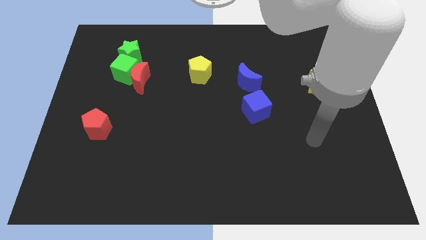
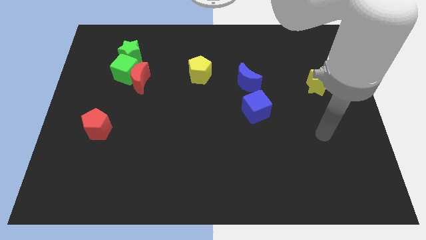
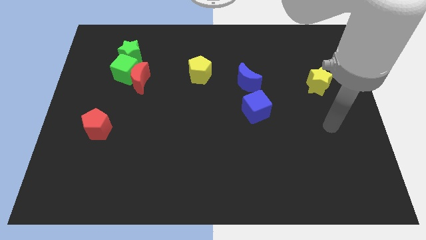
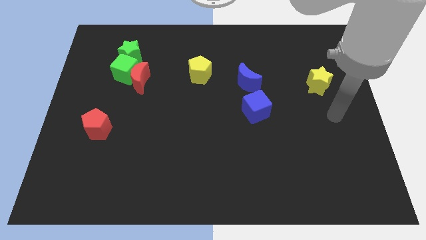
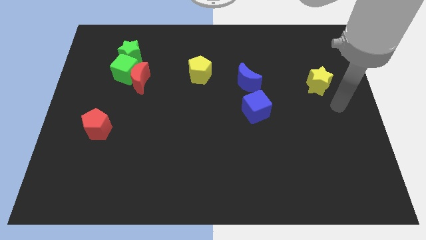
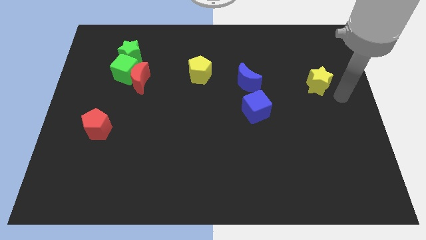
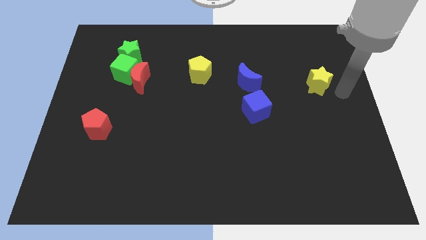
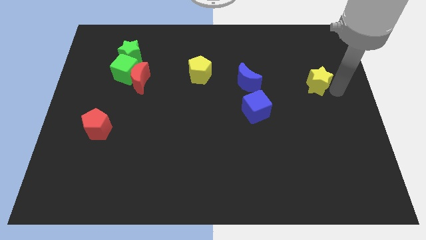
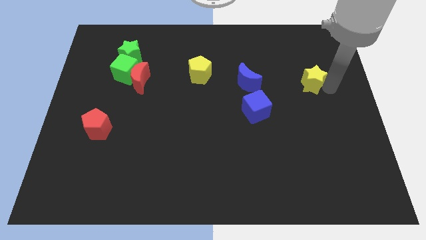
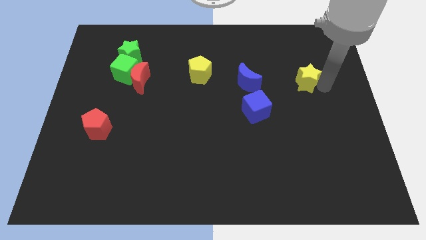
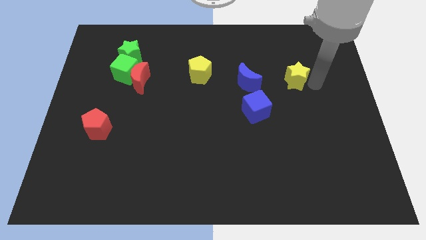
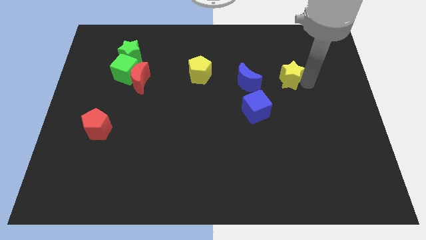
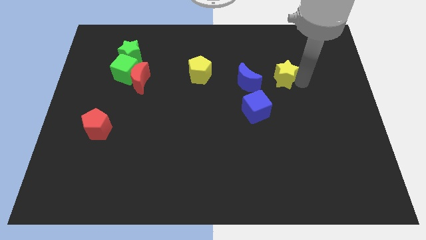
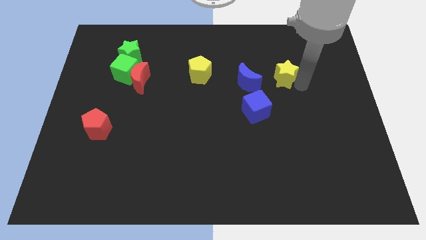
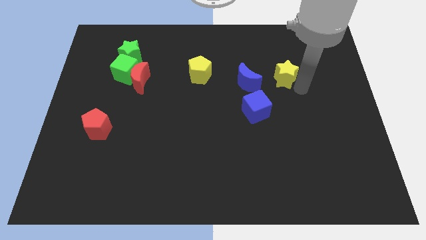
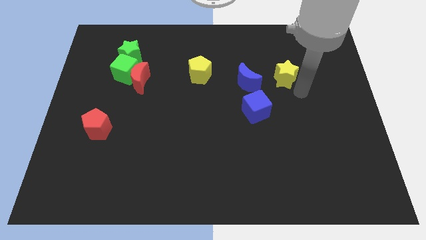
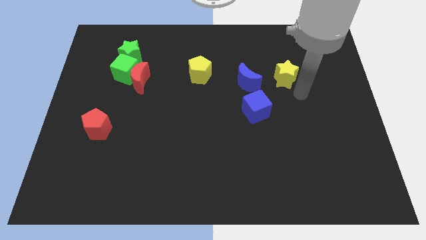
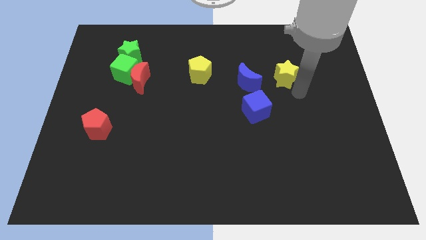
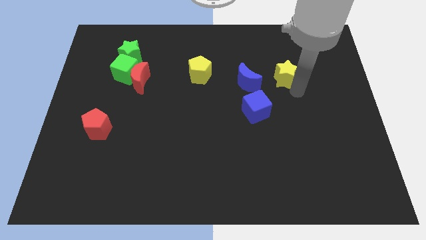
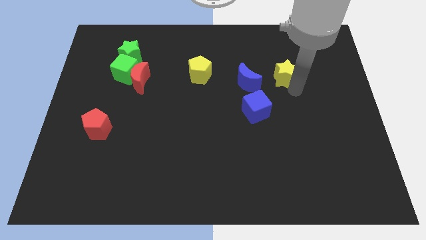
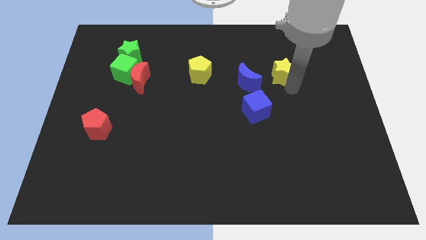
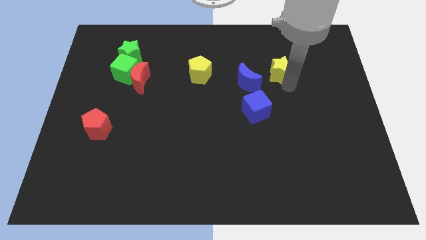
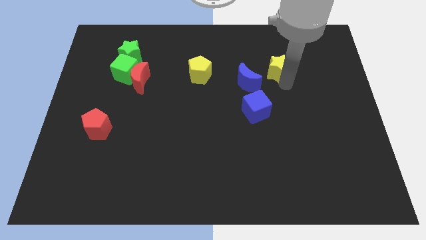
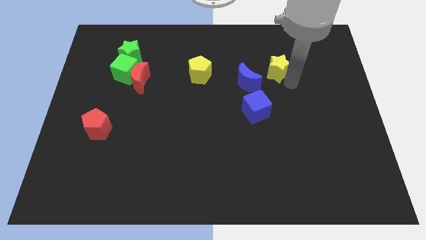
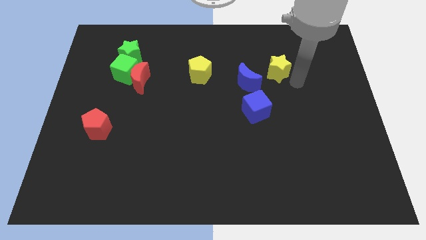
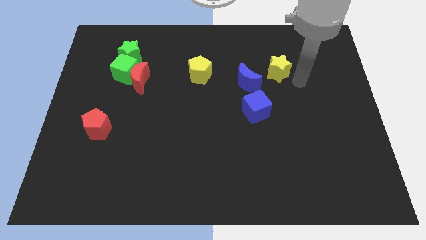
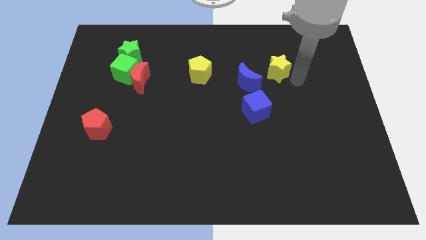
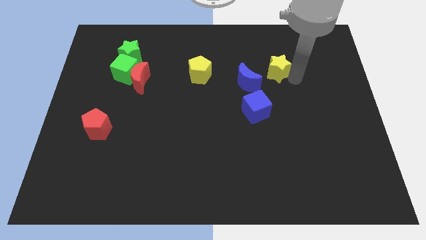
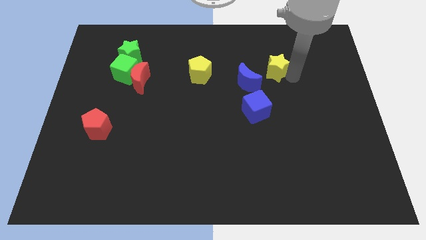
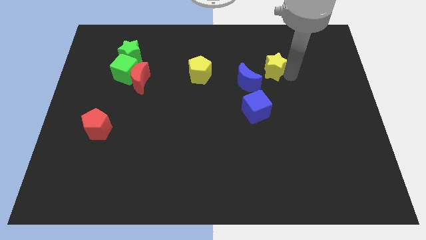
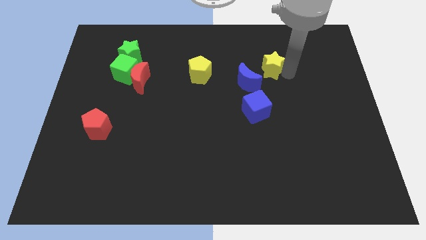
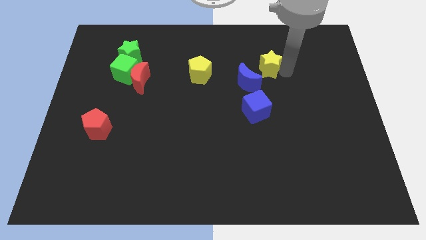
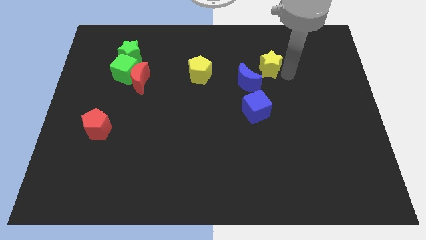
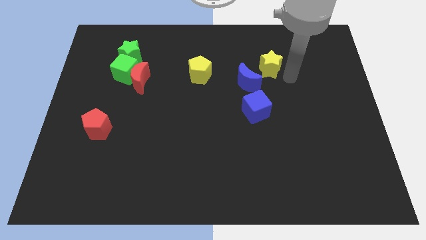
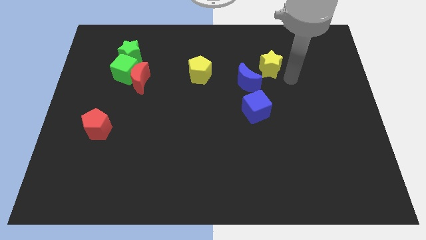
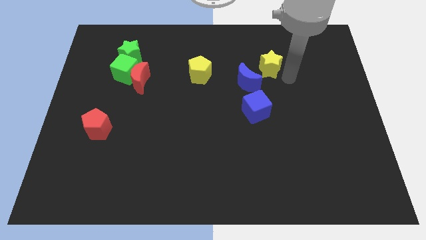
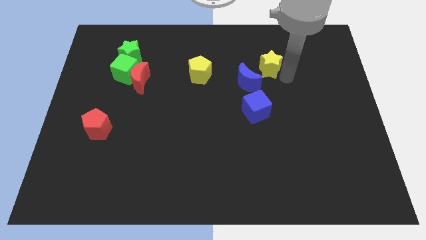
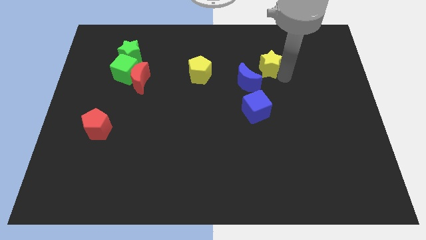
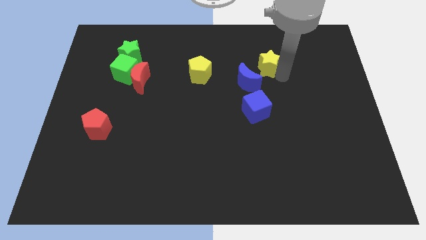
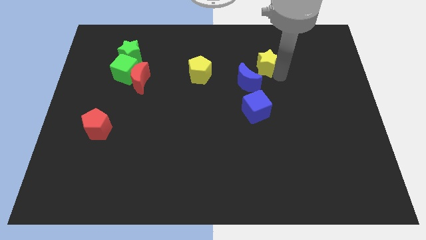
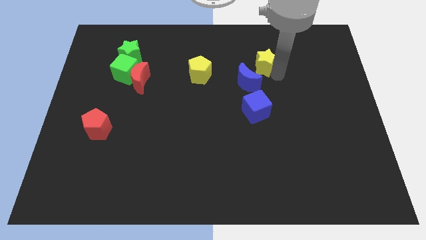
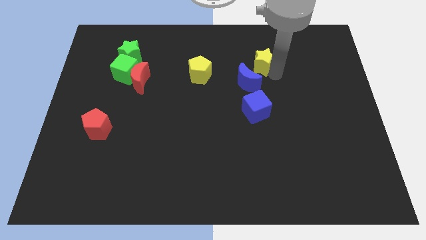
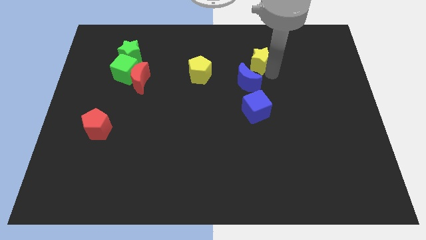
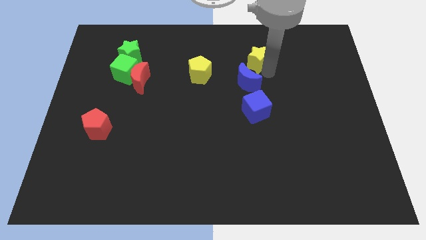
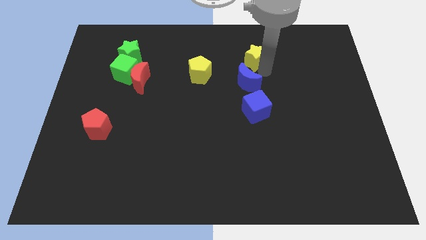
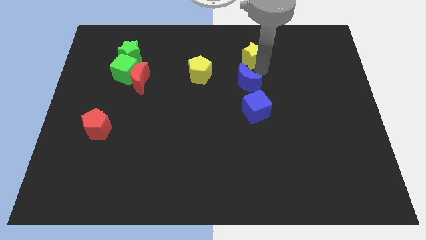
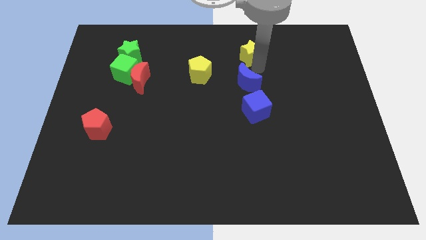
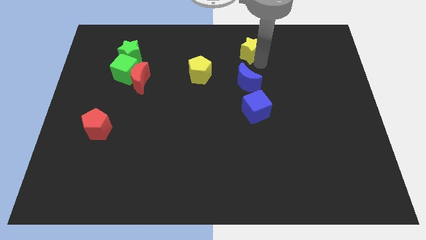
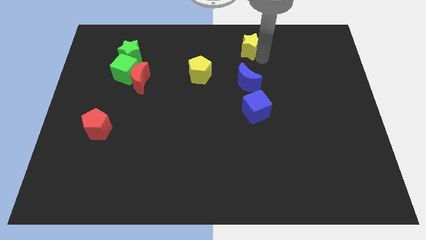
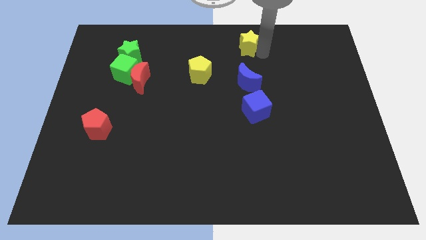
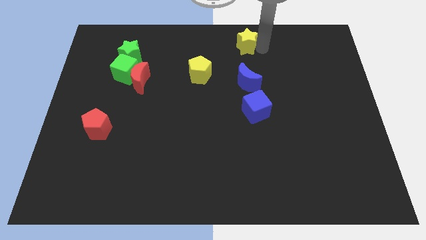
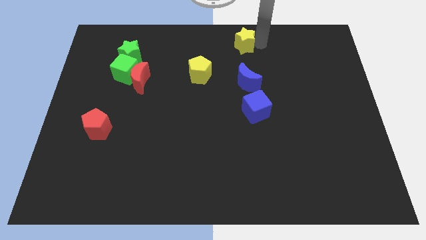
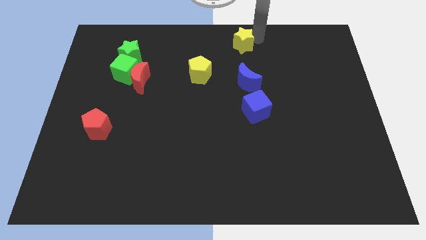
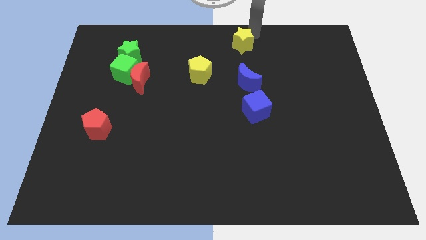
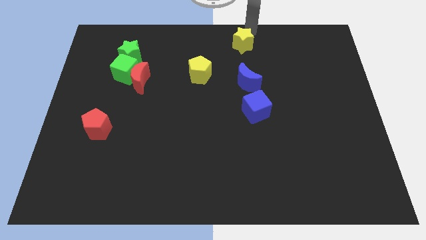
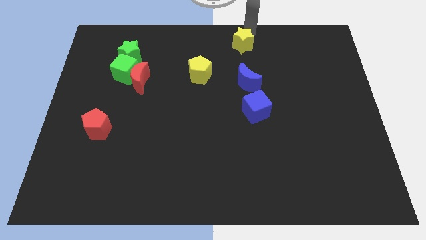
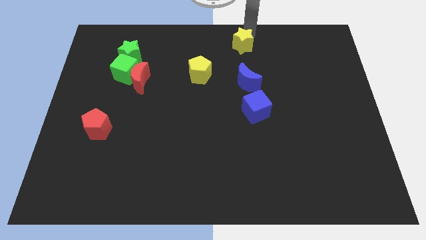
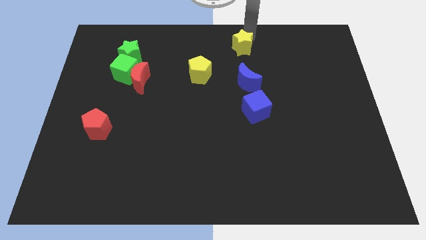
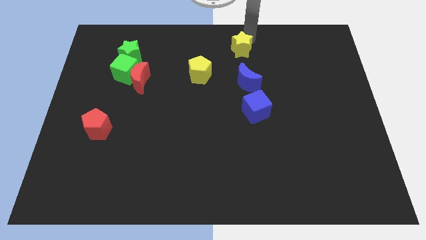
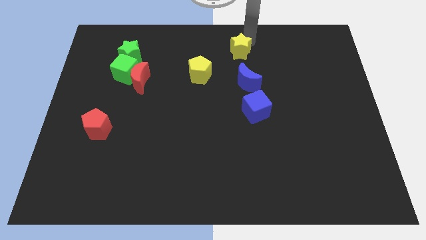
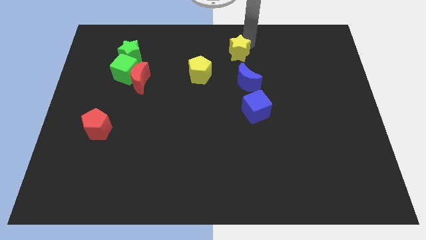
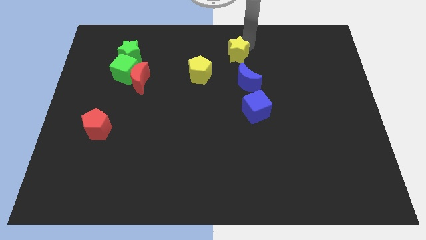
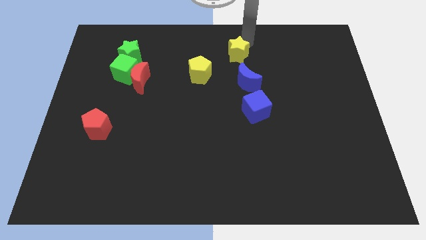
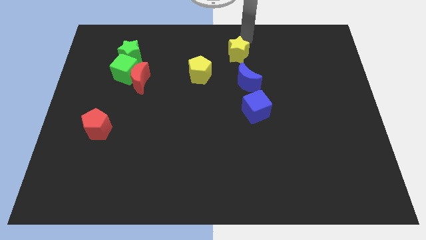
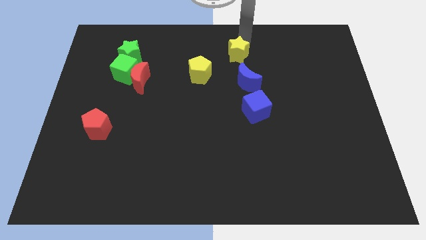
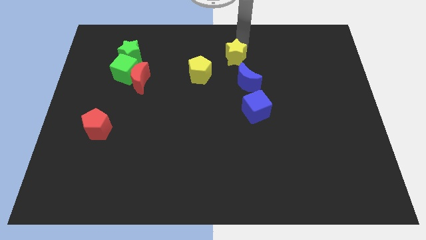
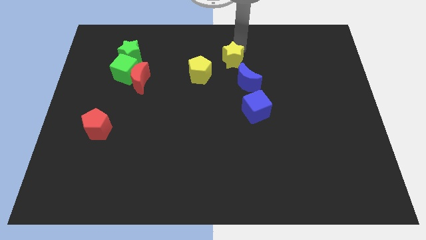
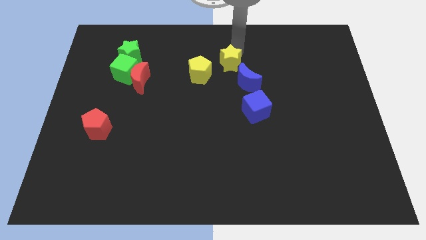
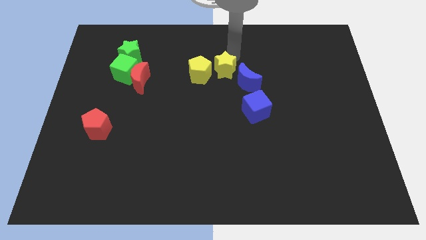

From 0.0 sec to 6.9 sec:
push the yellow star to the left

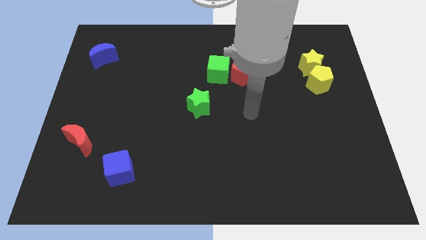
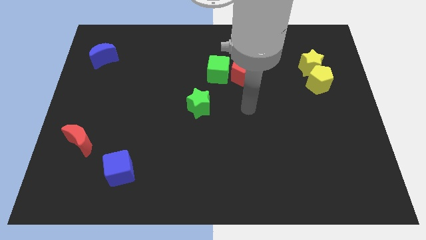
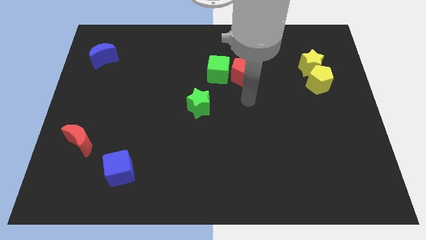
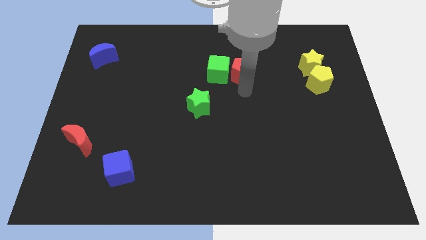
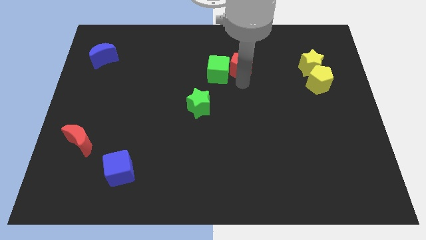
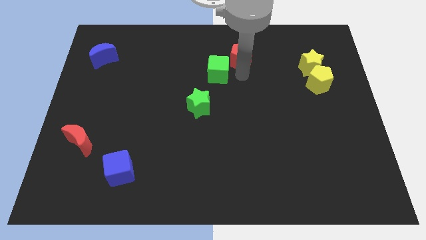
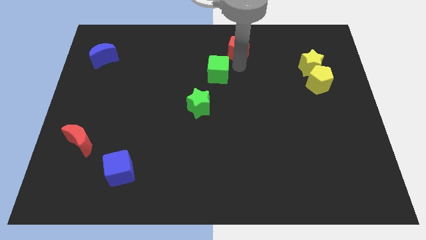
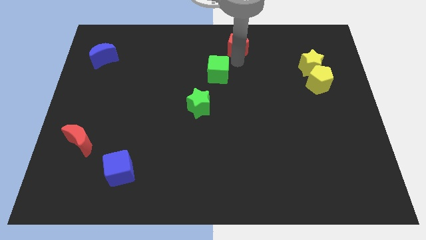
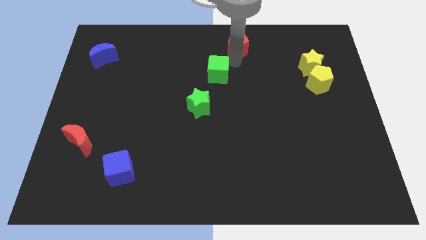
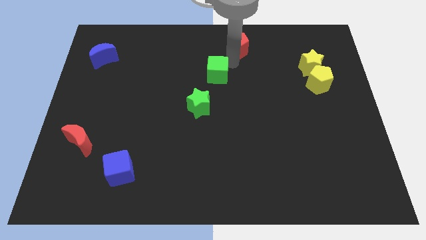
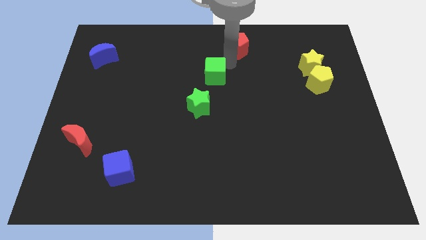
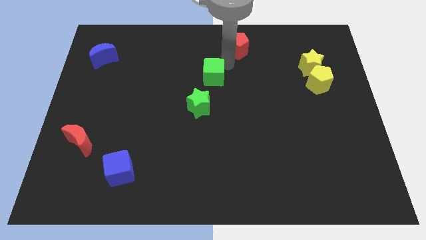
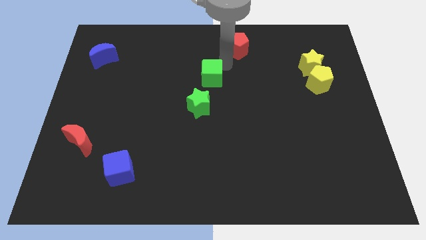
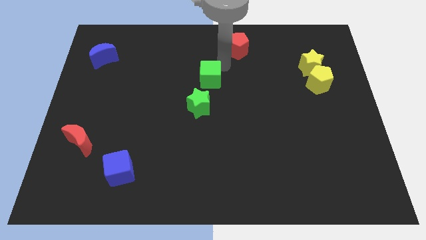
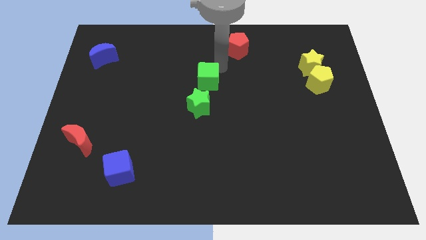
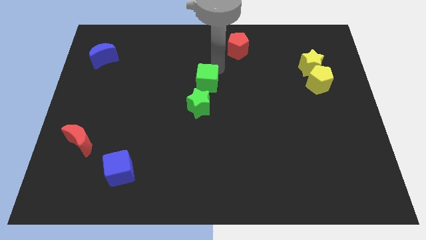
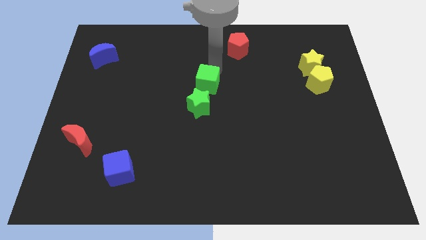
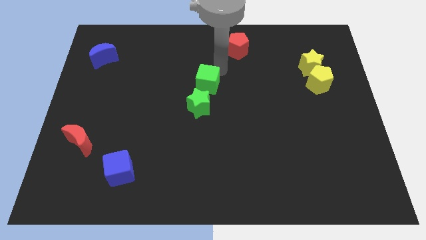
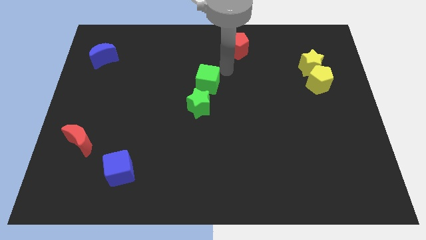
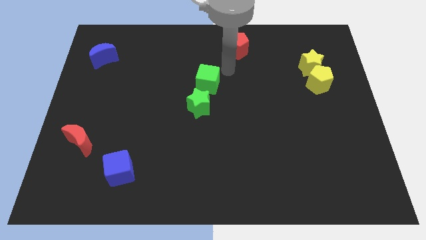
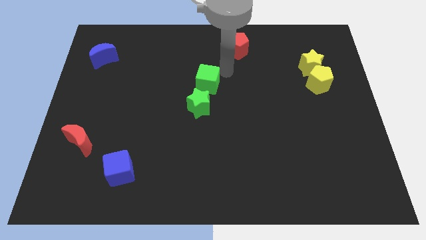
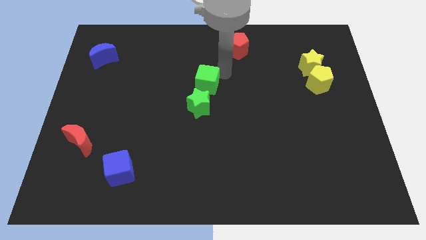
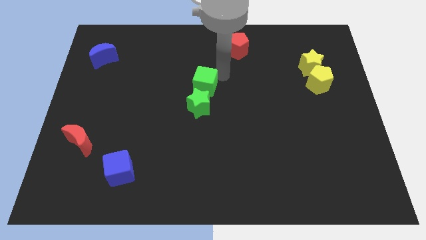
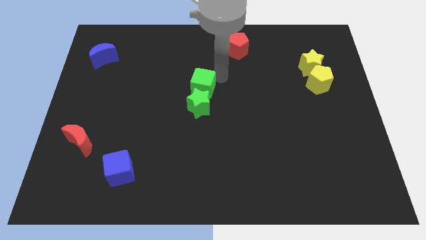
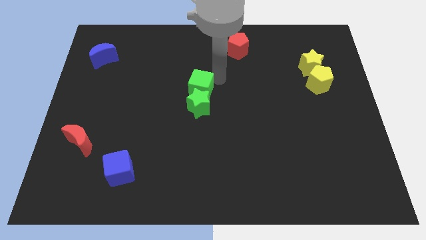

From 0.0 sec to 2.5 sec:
slightly push the green cube down and to the left
